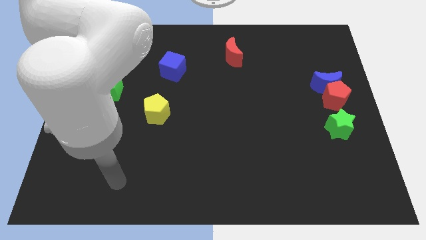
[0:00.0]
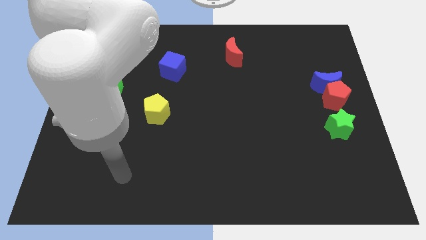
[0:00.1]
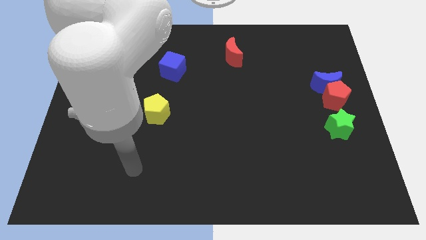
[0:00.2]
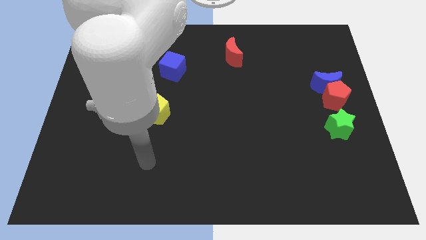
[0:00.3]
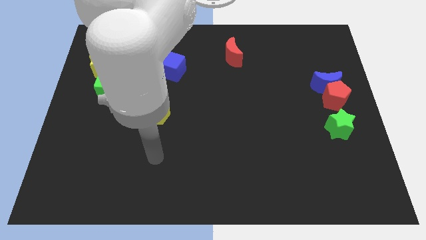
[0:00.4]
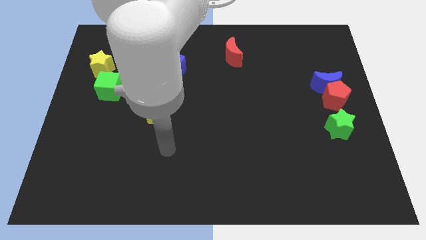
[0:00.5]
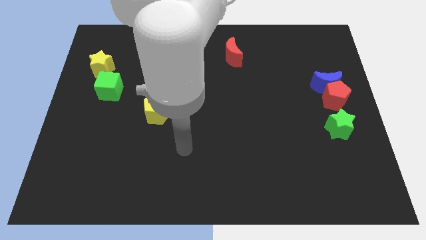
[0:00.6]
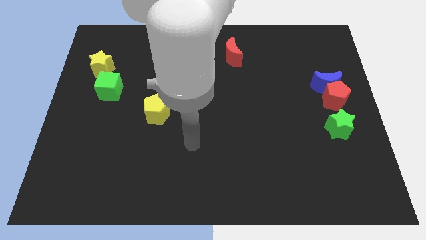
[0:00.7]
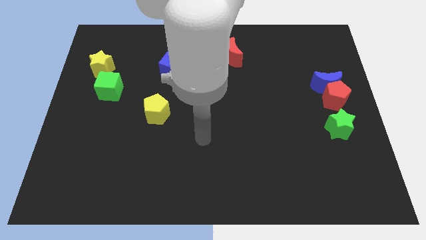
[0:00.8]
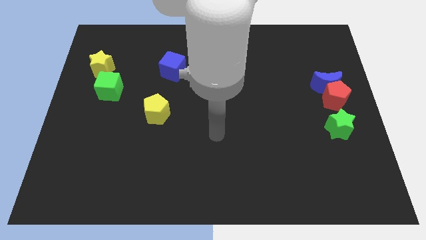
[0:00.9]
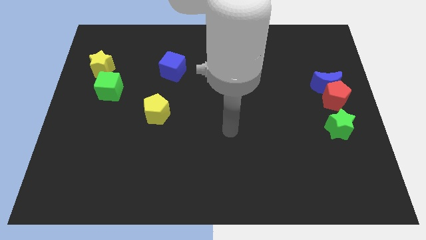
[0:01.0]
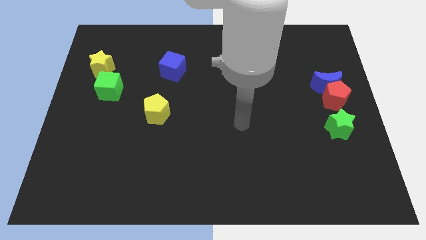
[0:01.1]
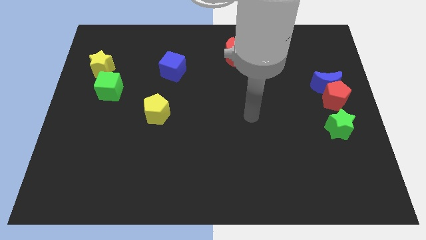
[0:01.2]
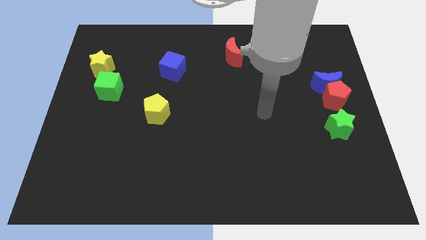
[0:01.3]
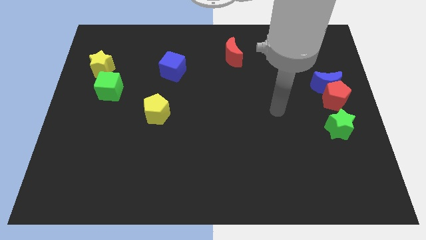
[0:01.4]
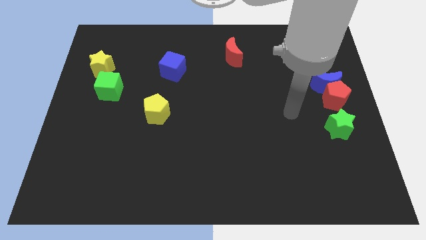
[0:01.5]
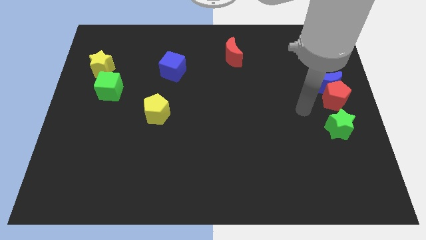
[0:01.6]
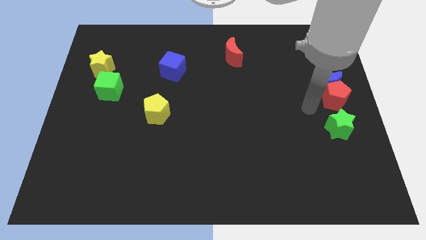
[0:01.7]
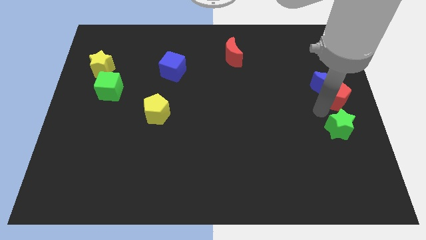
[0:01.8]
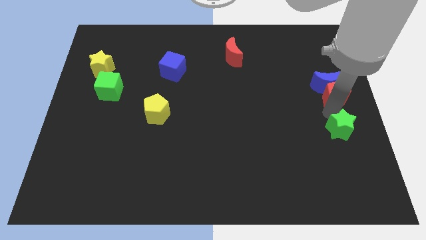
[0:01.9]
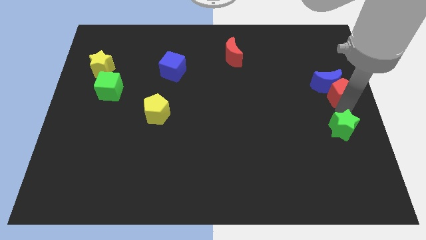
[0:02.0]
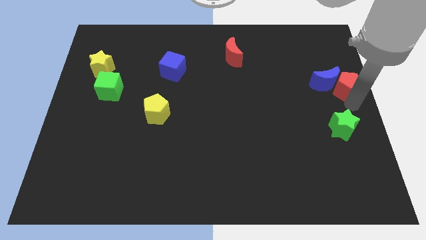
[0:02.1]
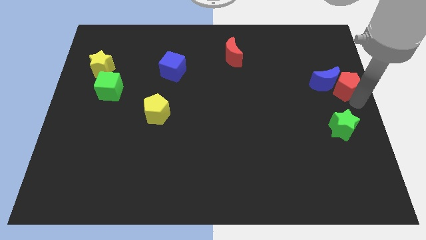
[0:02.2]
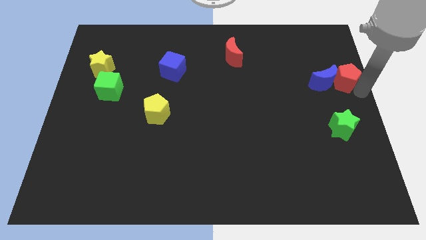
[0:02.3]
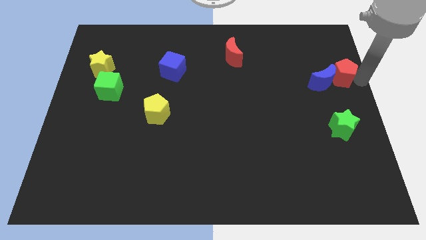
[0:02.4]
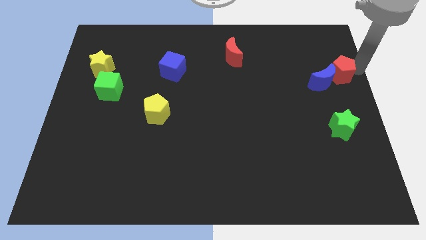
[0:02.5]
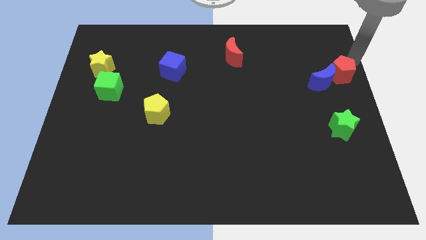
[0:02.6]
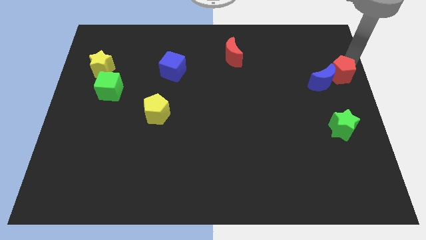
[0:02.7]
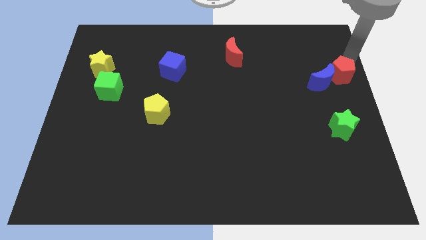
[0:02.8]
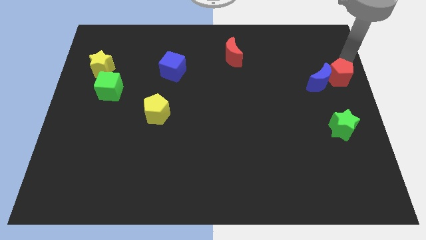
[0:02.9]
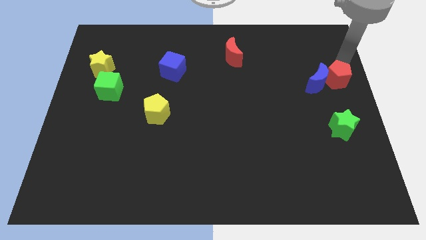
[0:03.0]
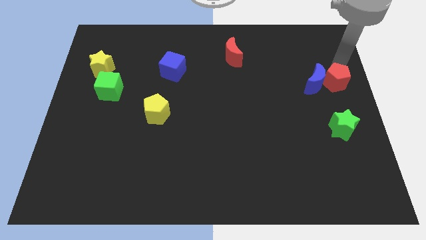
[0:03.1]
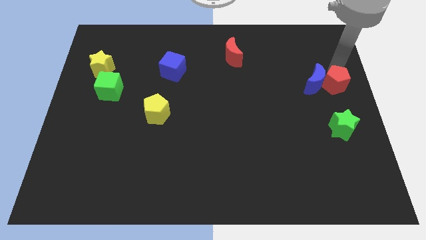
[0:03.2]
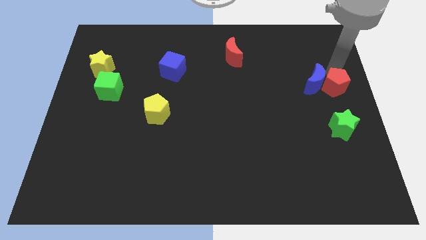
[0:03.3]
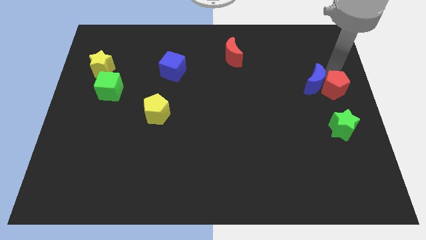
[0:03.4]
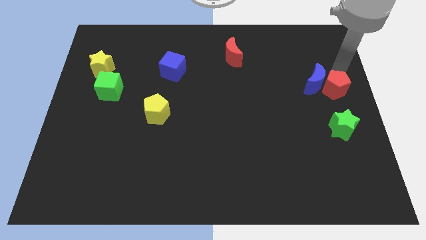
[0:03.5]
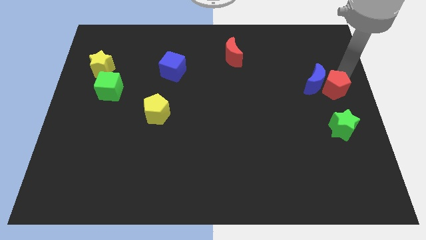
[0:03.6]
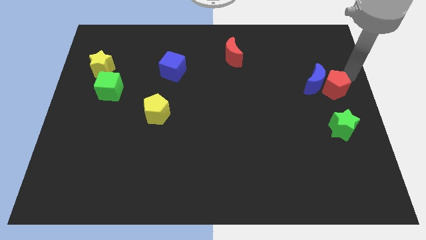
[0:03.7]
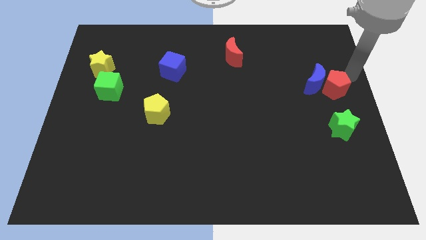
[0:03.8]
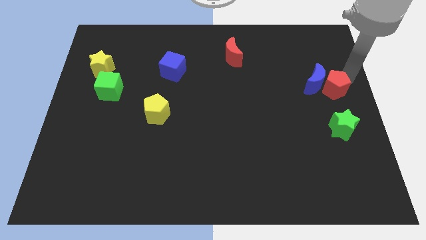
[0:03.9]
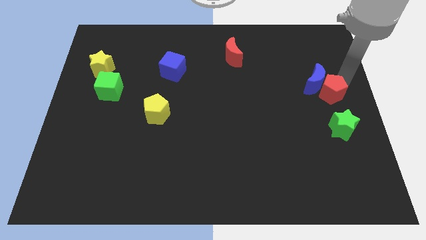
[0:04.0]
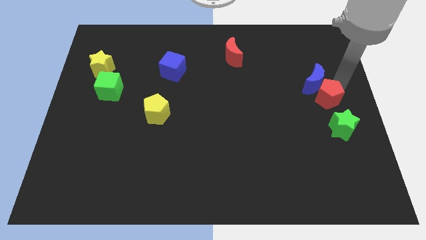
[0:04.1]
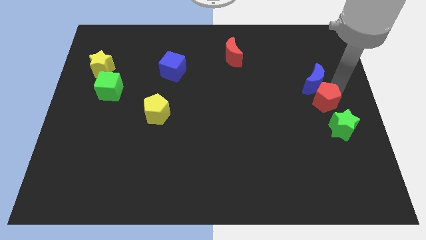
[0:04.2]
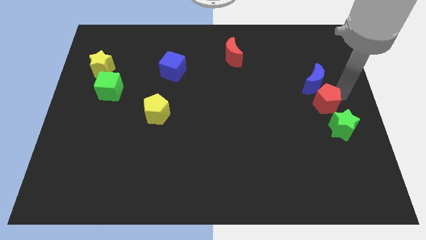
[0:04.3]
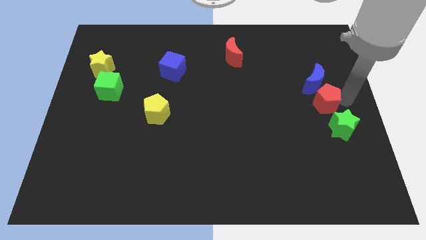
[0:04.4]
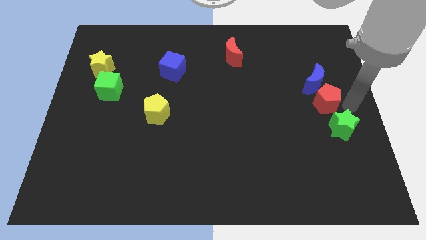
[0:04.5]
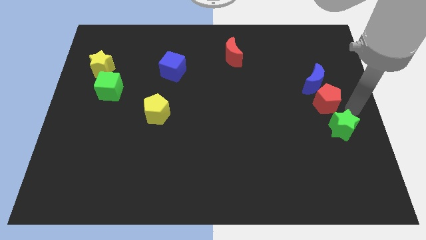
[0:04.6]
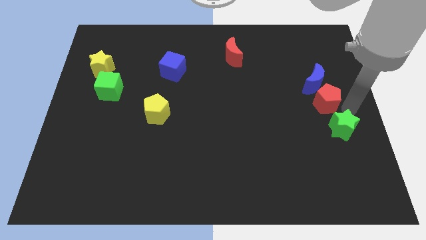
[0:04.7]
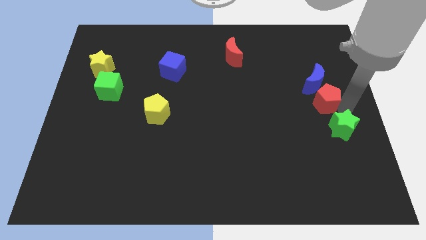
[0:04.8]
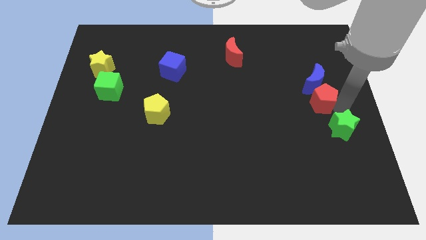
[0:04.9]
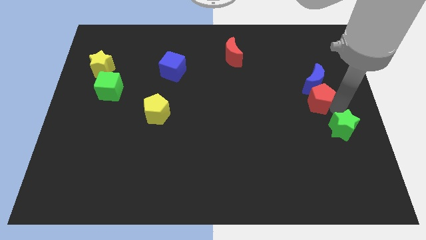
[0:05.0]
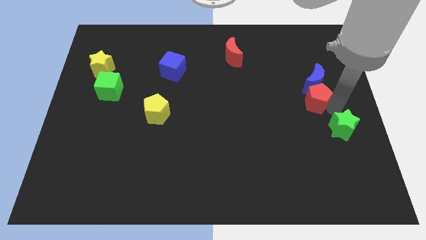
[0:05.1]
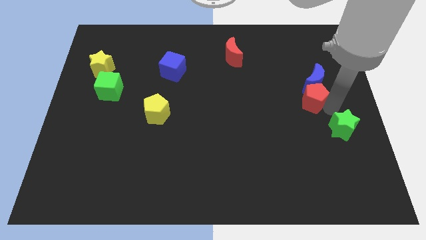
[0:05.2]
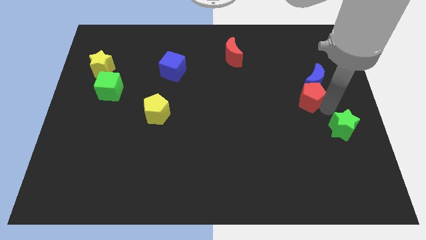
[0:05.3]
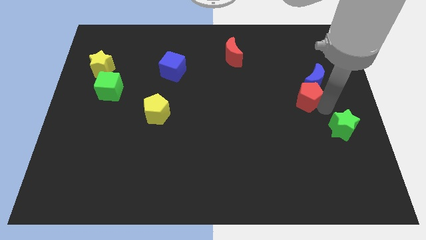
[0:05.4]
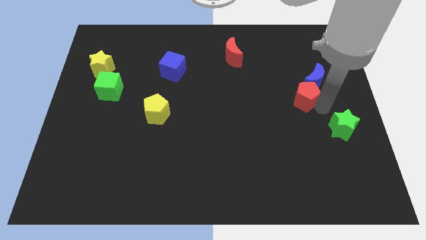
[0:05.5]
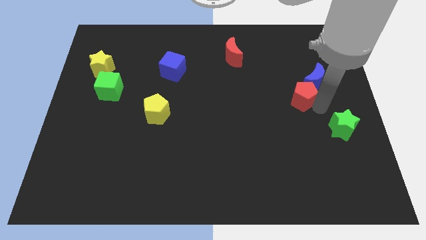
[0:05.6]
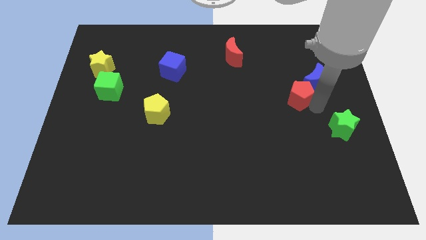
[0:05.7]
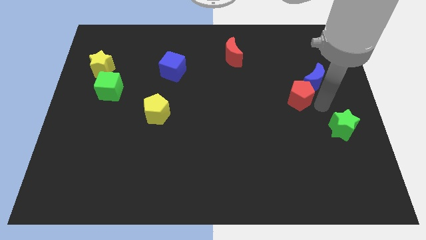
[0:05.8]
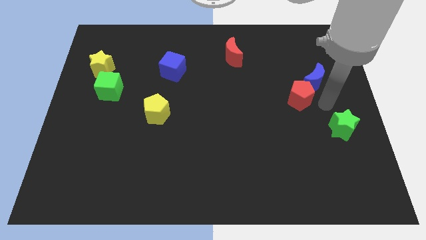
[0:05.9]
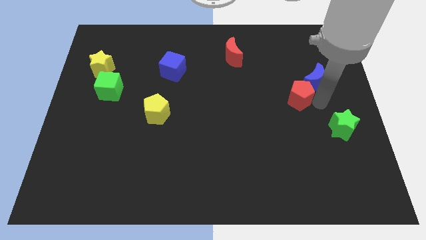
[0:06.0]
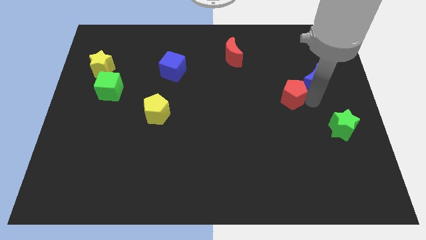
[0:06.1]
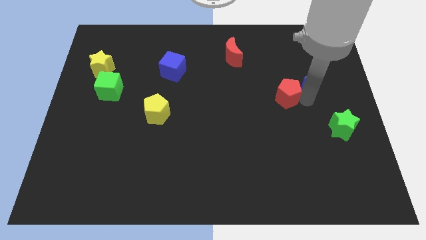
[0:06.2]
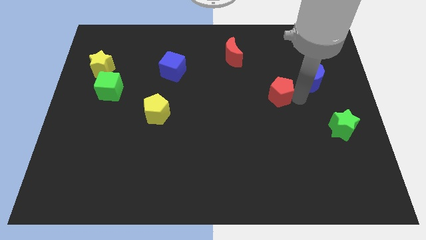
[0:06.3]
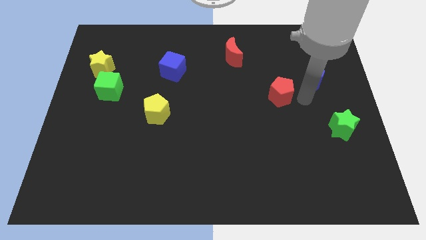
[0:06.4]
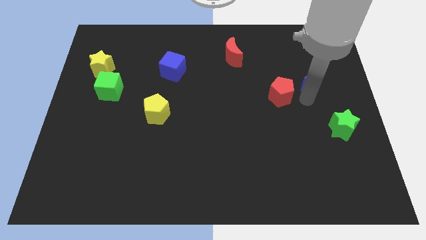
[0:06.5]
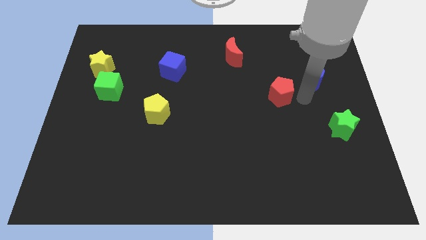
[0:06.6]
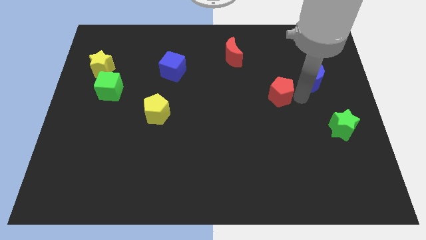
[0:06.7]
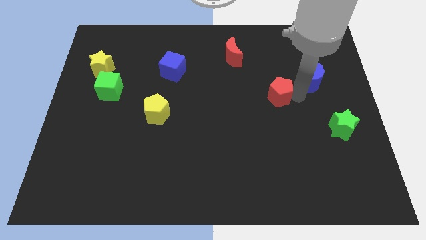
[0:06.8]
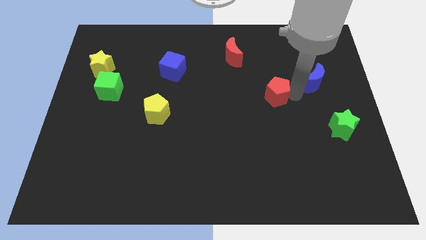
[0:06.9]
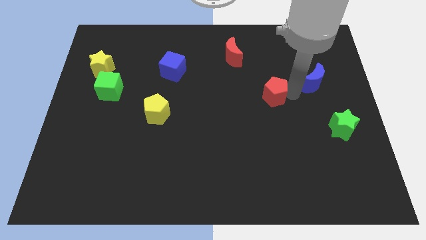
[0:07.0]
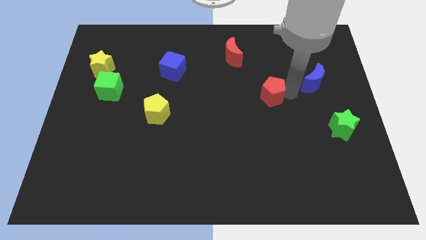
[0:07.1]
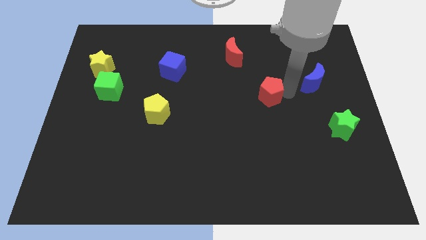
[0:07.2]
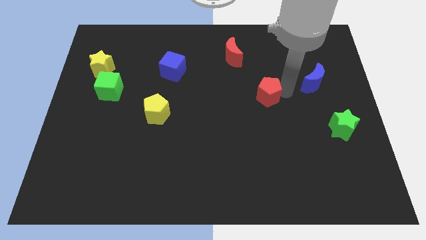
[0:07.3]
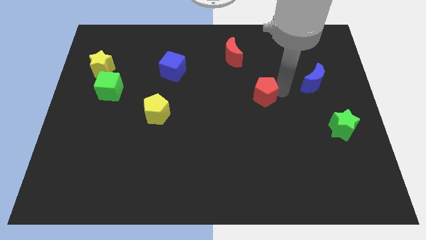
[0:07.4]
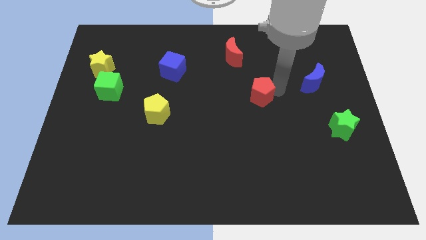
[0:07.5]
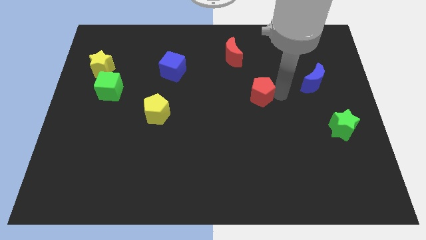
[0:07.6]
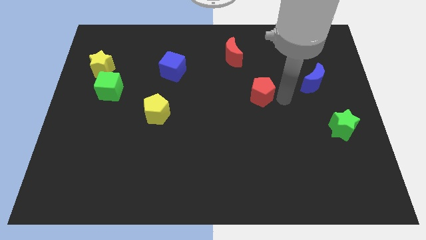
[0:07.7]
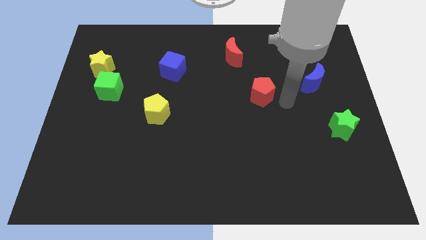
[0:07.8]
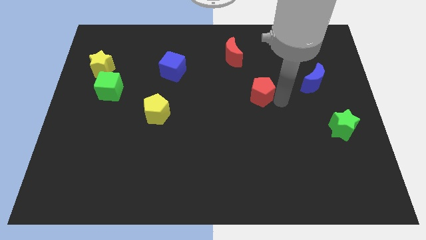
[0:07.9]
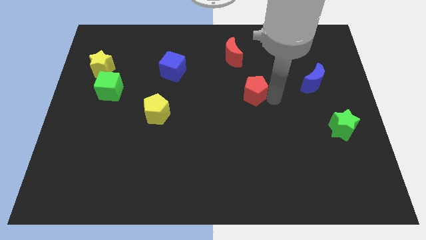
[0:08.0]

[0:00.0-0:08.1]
put the red pentagon to the bottom of the red moon
